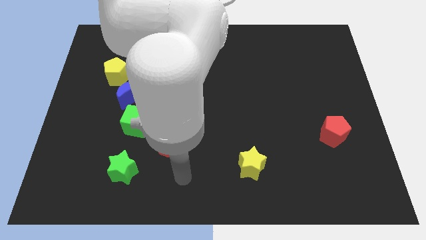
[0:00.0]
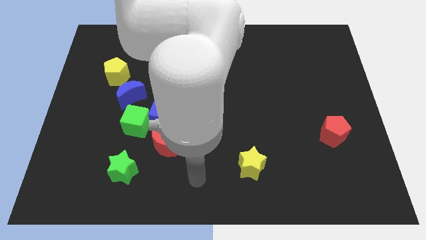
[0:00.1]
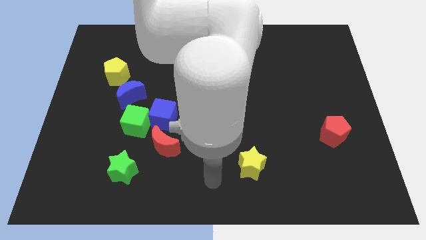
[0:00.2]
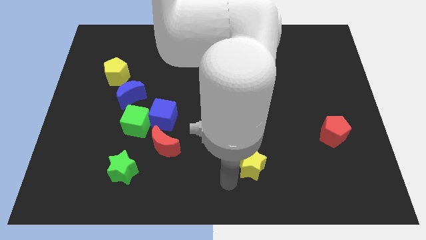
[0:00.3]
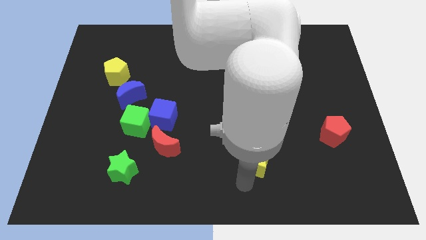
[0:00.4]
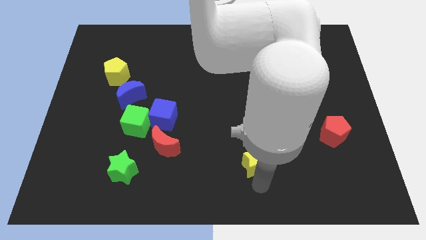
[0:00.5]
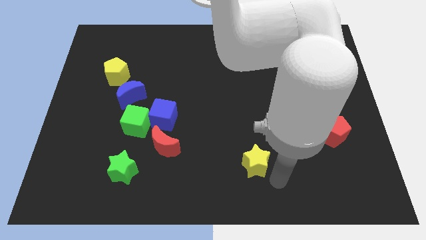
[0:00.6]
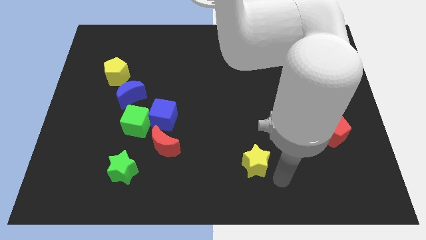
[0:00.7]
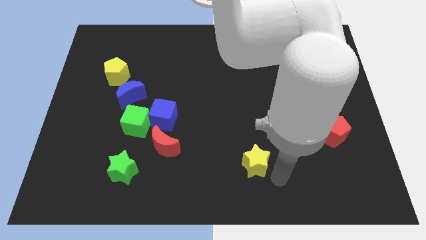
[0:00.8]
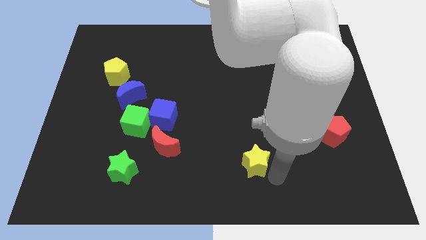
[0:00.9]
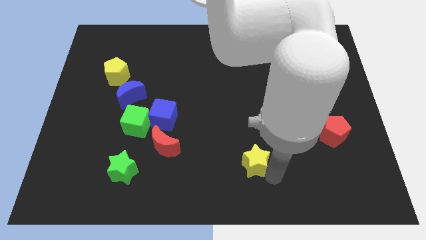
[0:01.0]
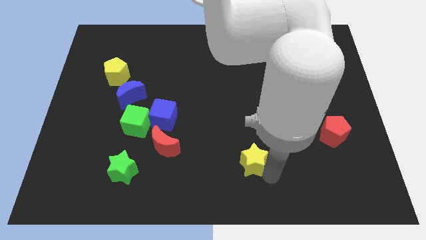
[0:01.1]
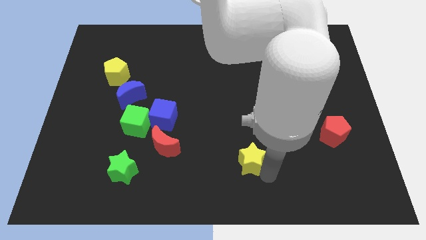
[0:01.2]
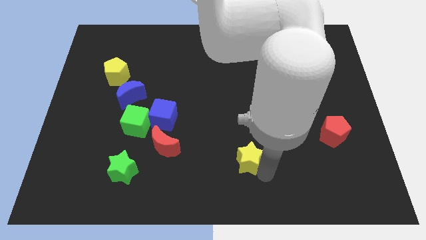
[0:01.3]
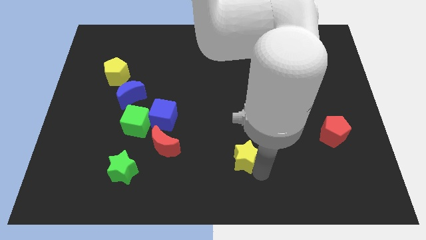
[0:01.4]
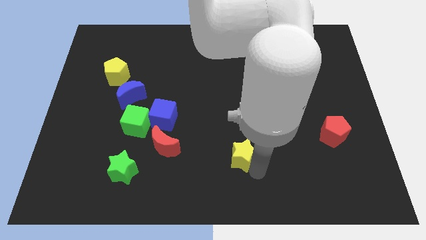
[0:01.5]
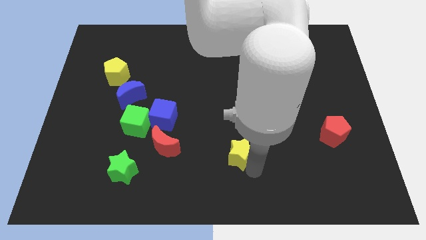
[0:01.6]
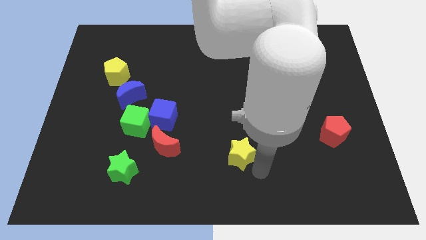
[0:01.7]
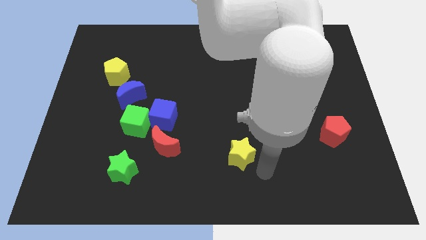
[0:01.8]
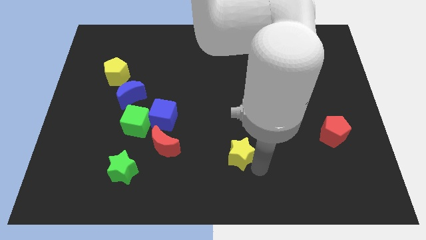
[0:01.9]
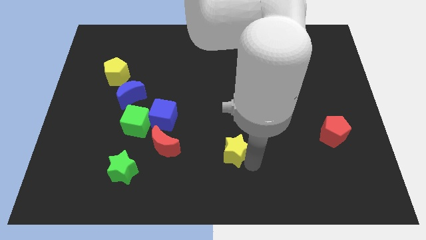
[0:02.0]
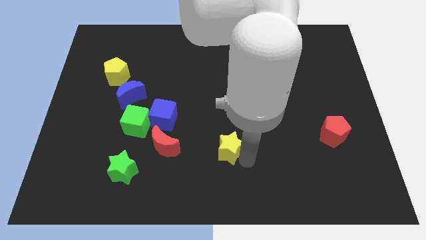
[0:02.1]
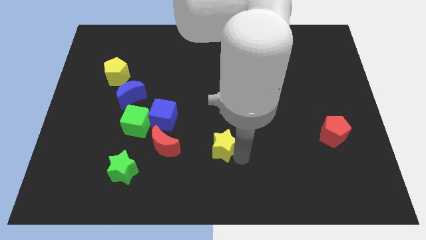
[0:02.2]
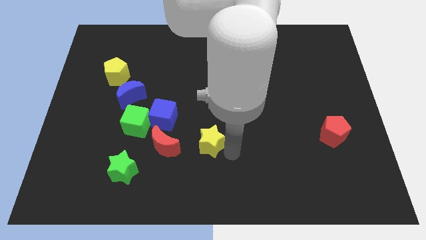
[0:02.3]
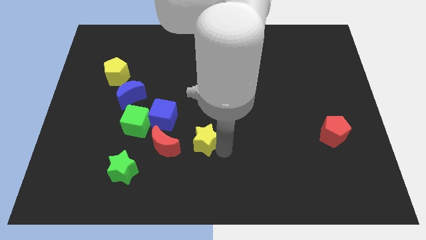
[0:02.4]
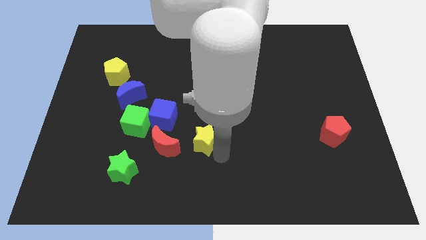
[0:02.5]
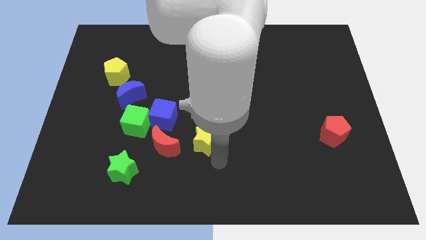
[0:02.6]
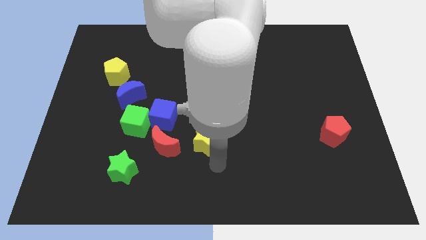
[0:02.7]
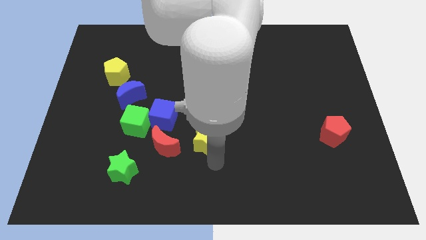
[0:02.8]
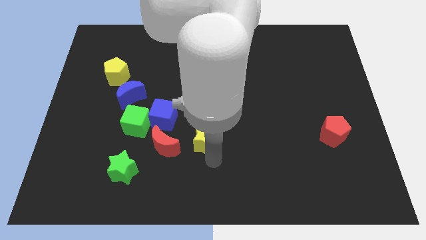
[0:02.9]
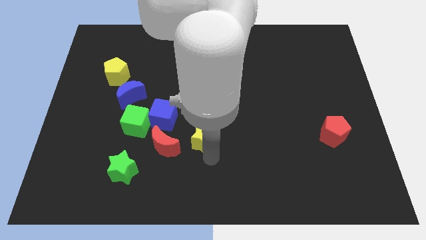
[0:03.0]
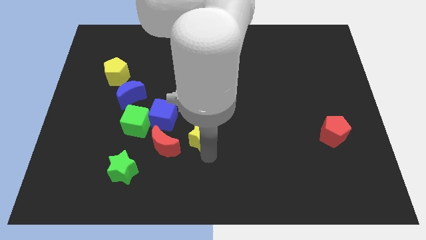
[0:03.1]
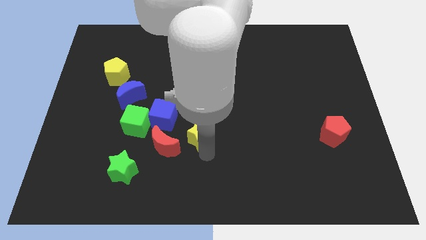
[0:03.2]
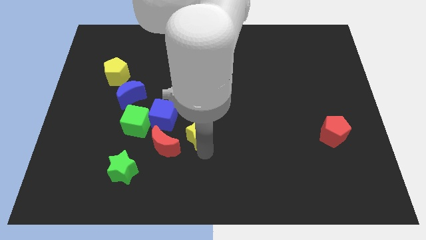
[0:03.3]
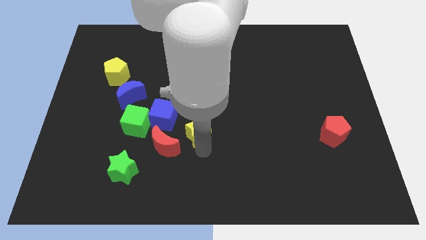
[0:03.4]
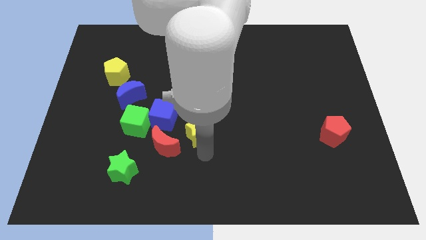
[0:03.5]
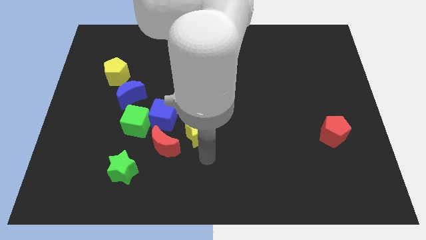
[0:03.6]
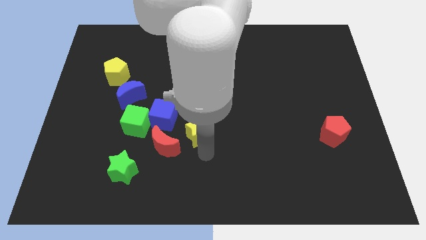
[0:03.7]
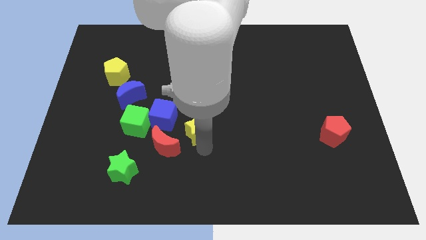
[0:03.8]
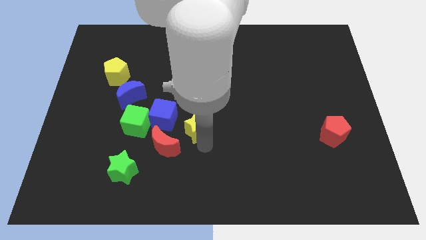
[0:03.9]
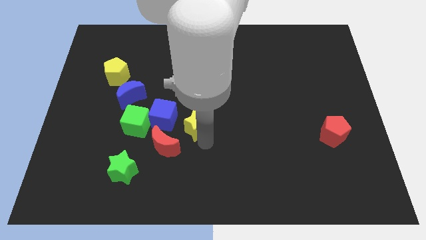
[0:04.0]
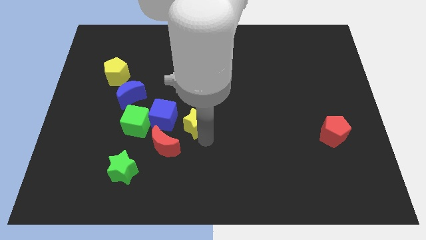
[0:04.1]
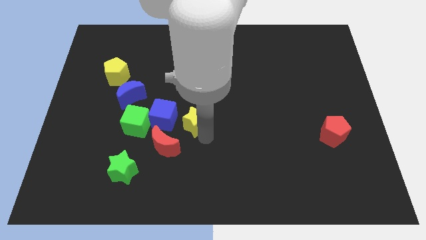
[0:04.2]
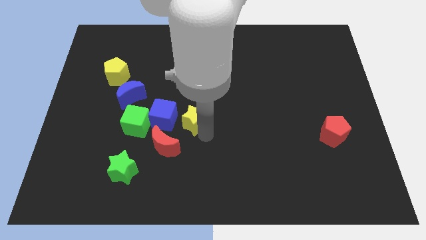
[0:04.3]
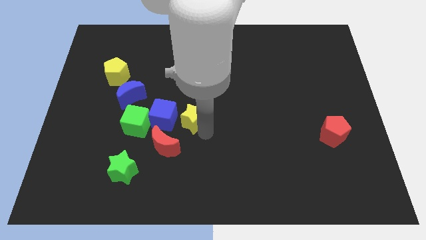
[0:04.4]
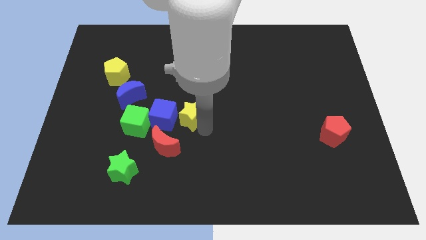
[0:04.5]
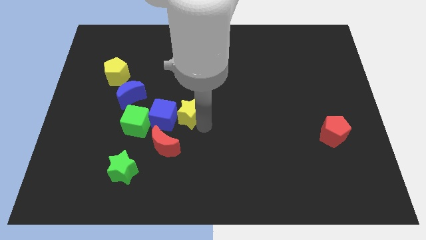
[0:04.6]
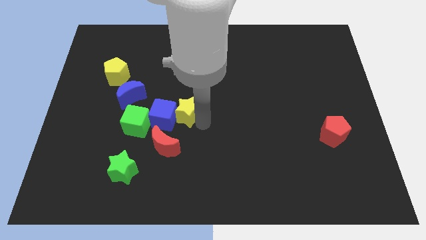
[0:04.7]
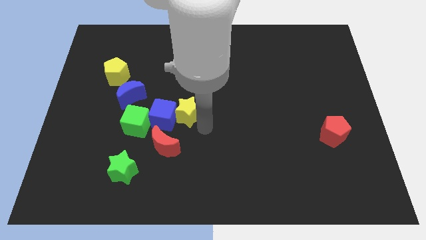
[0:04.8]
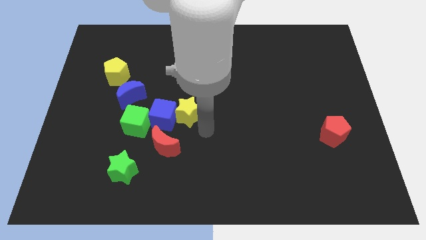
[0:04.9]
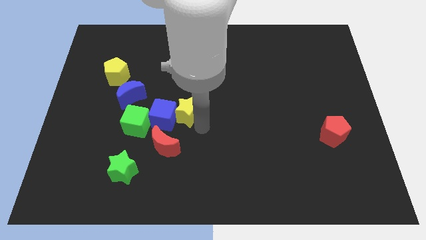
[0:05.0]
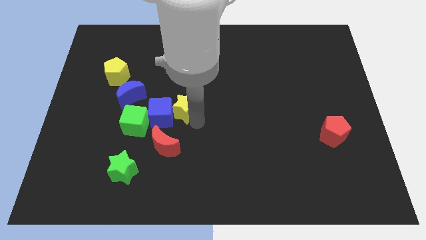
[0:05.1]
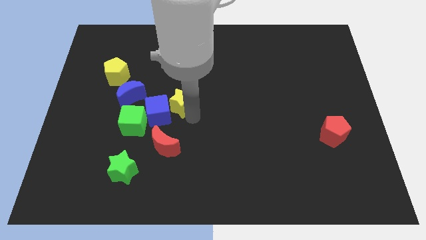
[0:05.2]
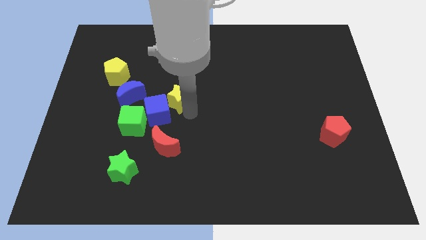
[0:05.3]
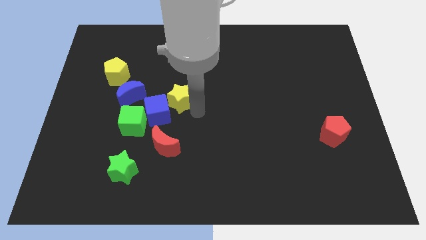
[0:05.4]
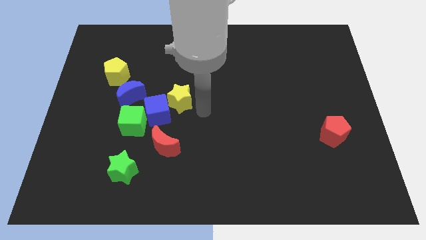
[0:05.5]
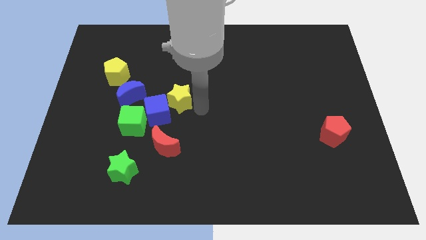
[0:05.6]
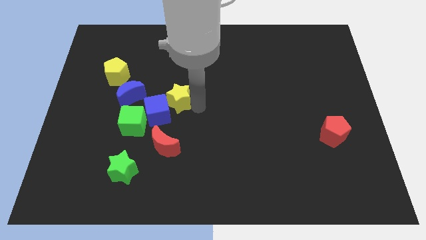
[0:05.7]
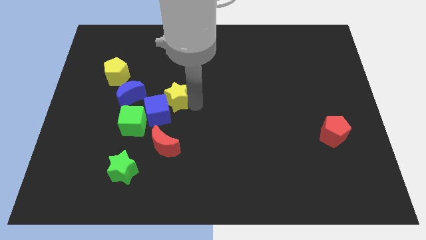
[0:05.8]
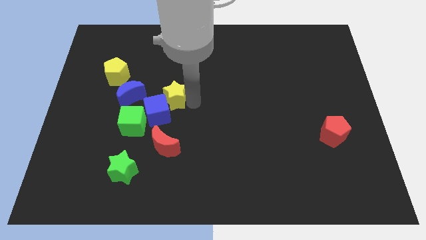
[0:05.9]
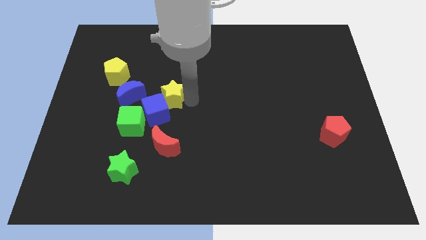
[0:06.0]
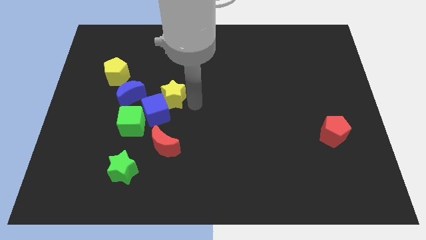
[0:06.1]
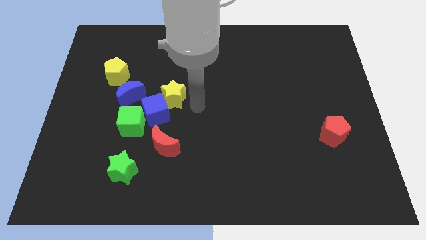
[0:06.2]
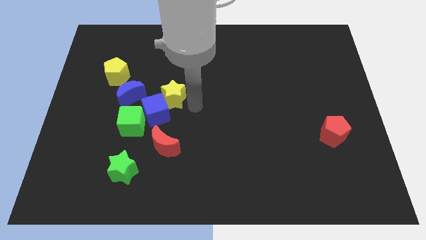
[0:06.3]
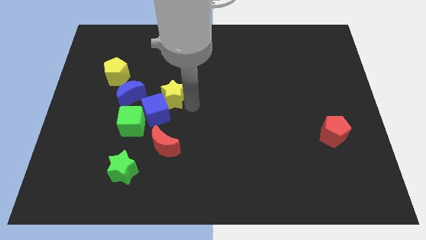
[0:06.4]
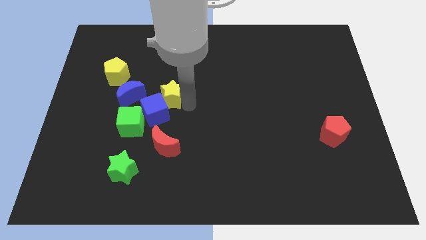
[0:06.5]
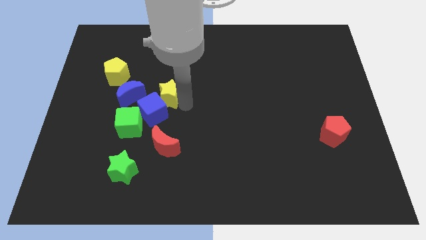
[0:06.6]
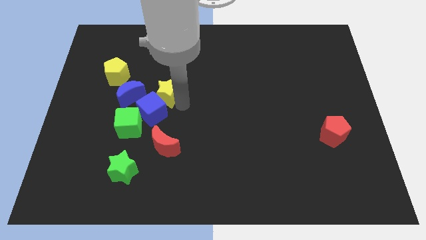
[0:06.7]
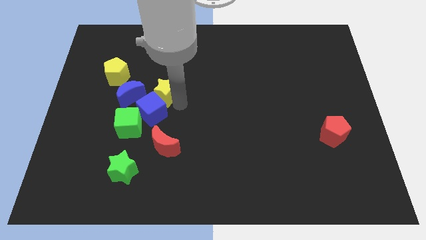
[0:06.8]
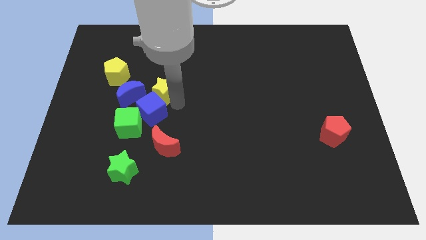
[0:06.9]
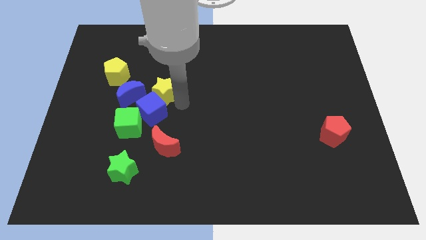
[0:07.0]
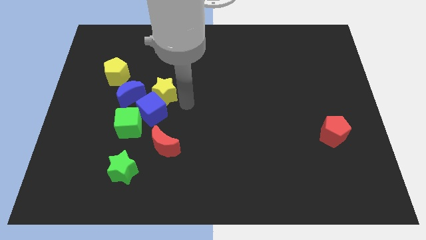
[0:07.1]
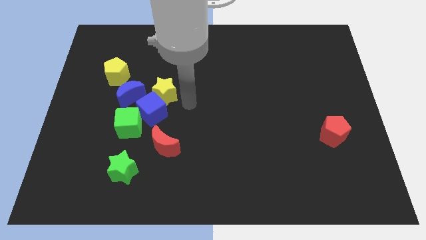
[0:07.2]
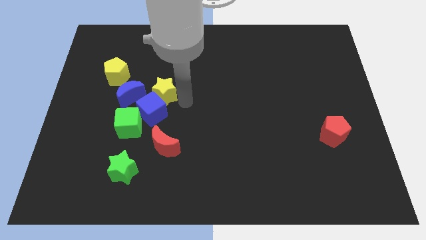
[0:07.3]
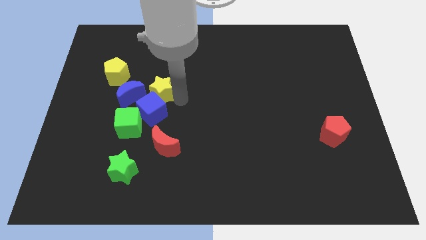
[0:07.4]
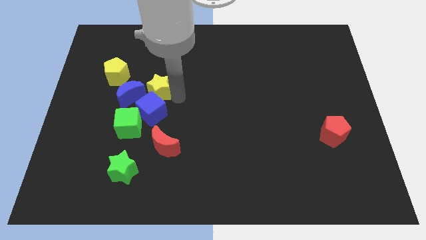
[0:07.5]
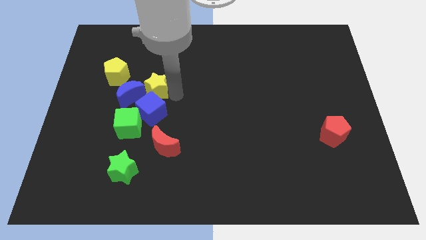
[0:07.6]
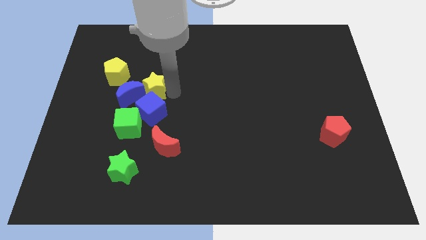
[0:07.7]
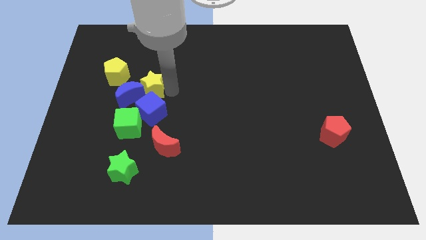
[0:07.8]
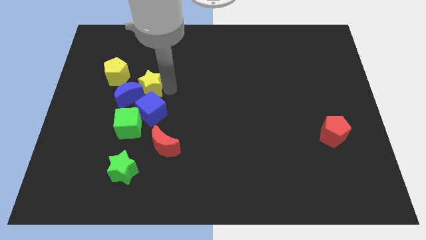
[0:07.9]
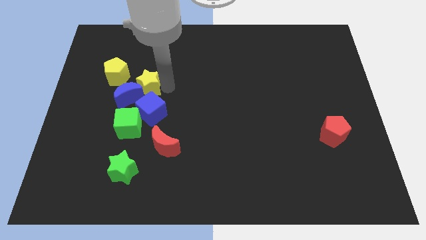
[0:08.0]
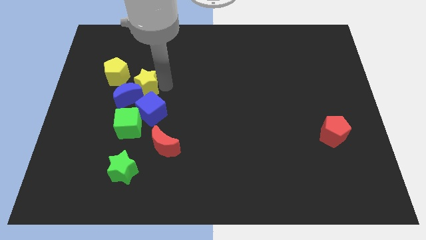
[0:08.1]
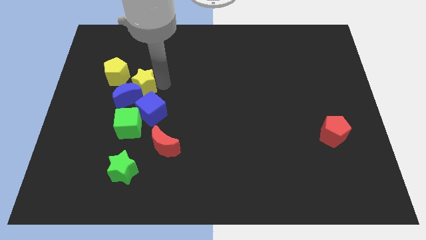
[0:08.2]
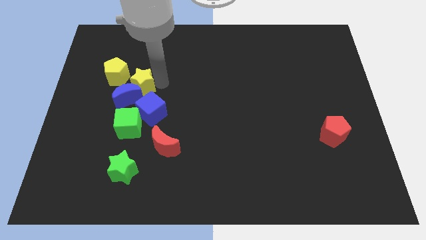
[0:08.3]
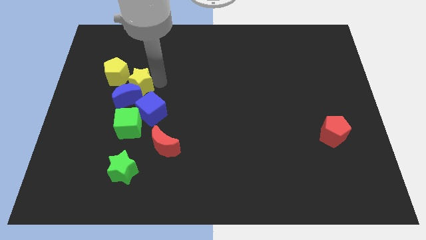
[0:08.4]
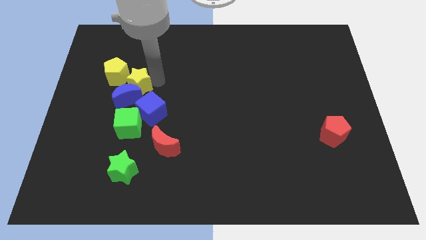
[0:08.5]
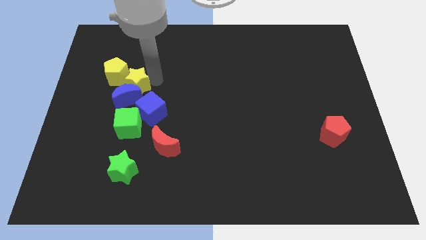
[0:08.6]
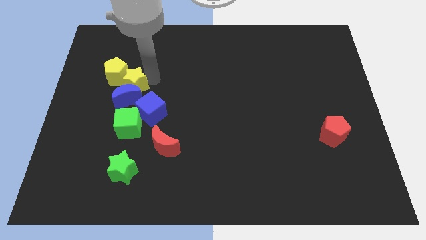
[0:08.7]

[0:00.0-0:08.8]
push the yellow star to the yellow pentagon
